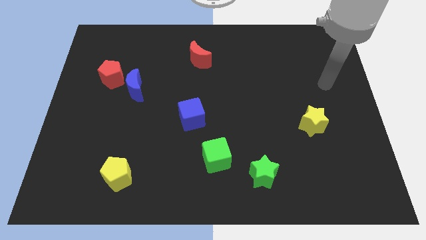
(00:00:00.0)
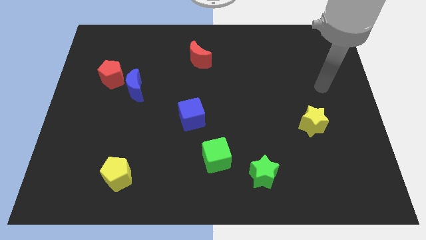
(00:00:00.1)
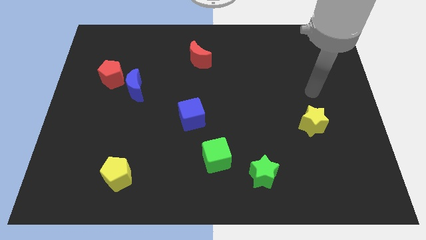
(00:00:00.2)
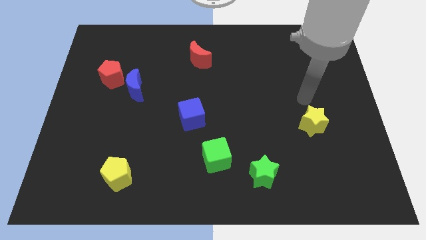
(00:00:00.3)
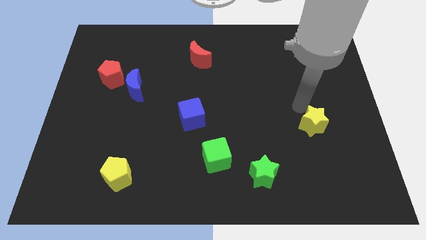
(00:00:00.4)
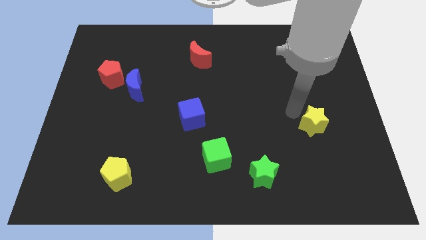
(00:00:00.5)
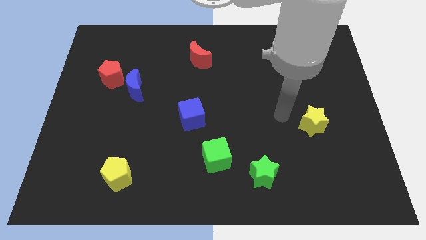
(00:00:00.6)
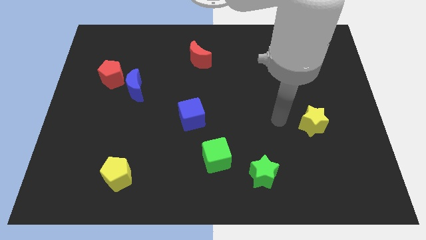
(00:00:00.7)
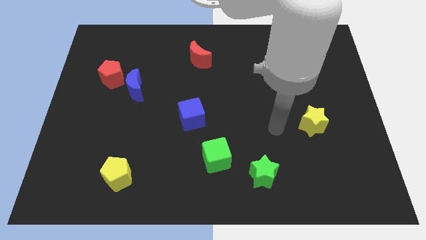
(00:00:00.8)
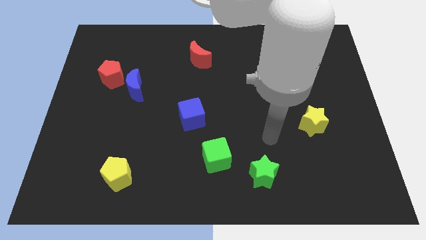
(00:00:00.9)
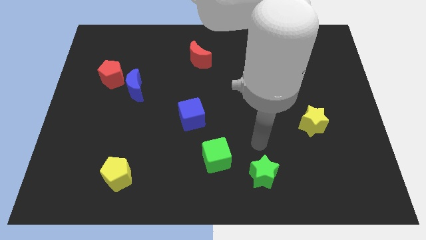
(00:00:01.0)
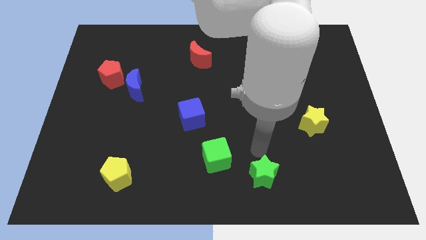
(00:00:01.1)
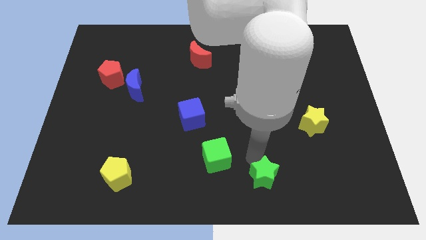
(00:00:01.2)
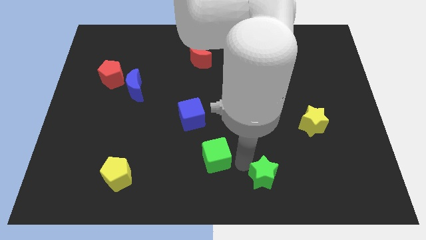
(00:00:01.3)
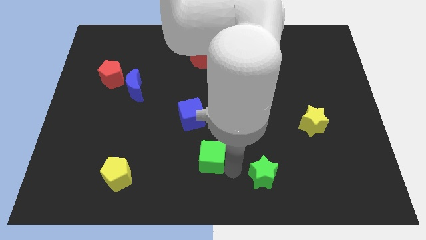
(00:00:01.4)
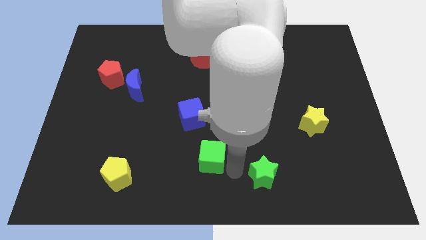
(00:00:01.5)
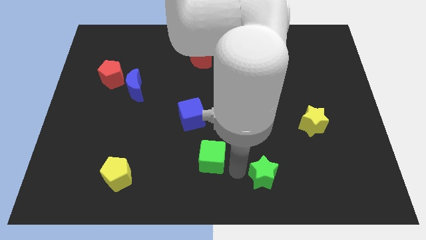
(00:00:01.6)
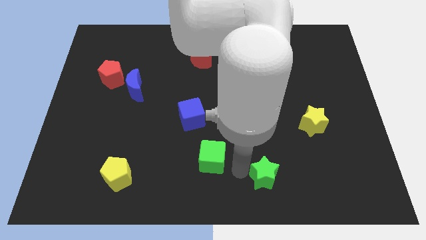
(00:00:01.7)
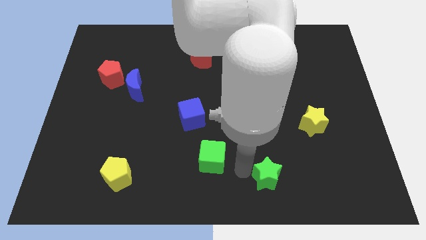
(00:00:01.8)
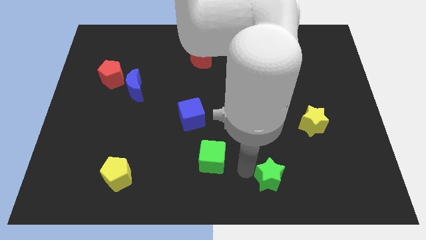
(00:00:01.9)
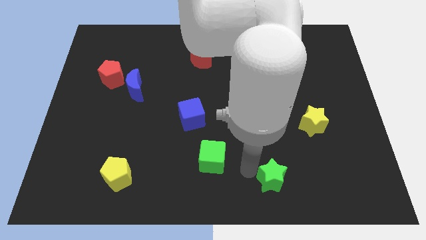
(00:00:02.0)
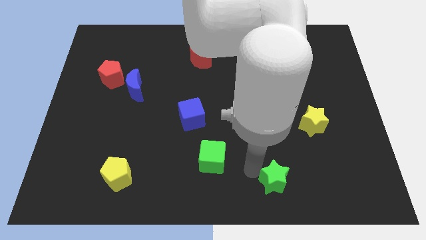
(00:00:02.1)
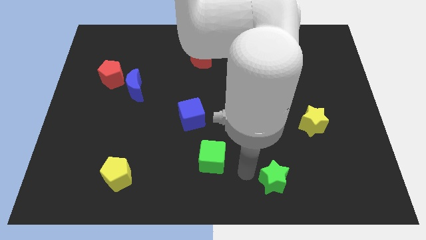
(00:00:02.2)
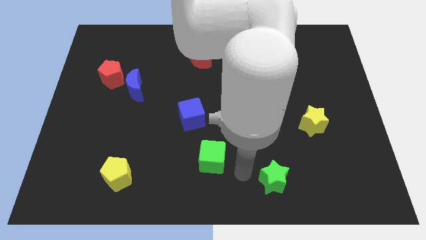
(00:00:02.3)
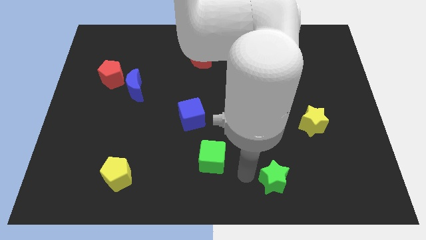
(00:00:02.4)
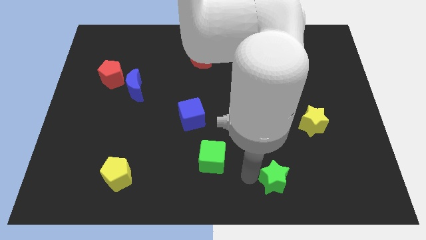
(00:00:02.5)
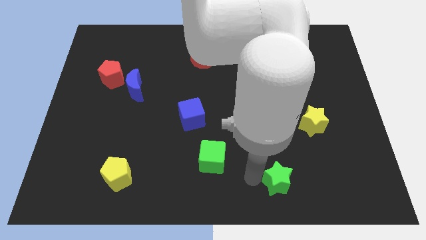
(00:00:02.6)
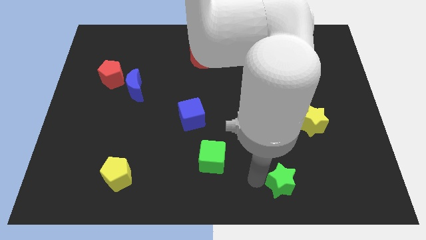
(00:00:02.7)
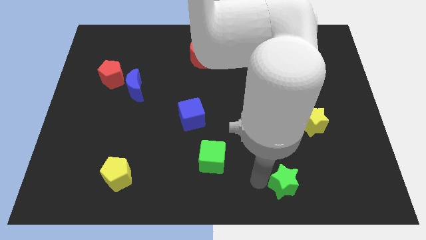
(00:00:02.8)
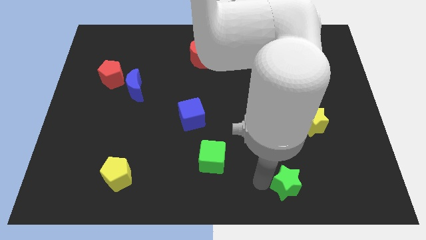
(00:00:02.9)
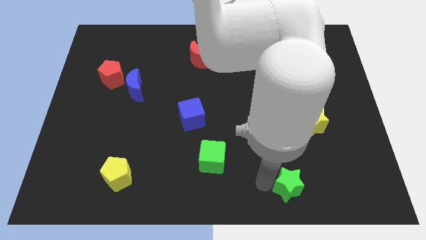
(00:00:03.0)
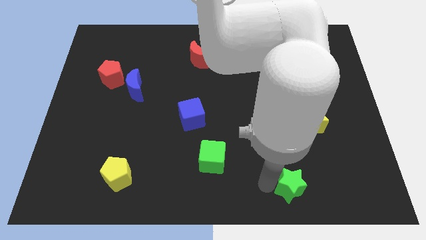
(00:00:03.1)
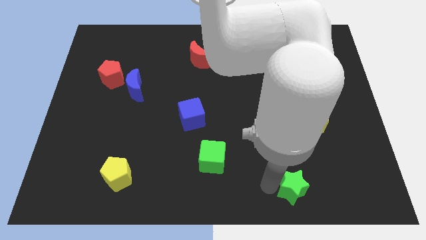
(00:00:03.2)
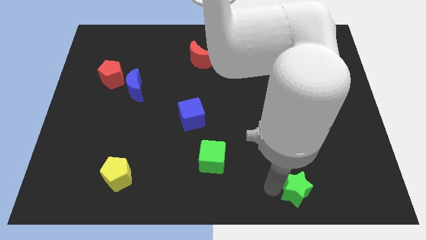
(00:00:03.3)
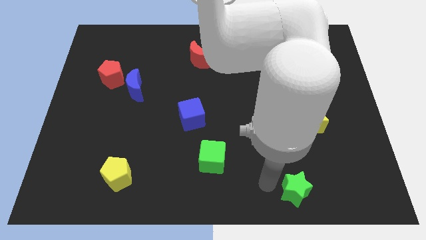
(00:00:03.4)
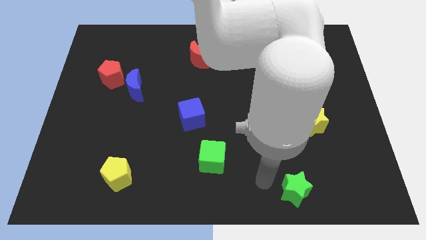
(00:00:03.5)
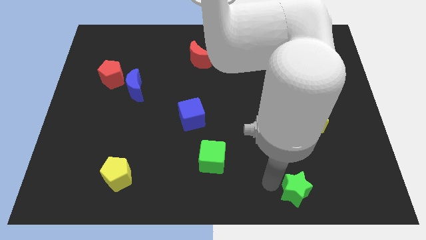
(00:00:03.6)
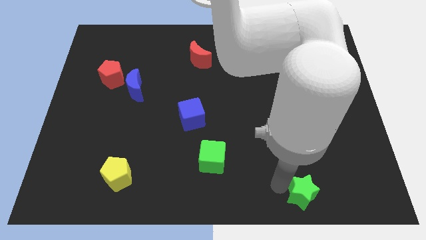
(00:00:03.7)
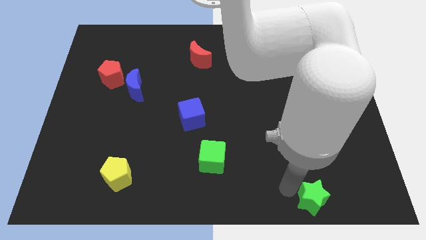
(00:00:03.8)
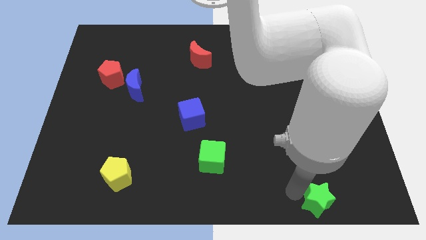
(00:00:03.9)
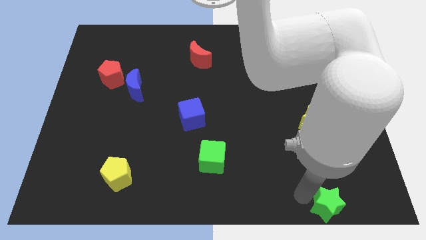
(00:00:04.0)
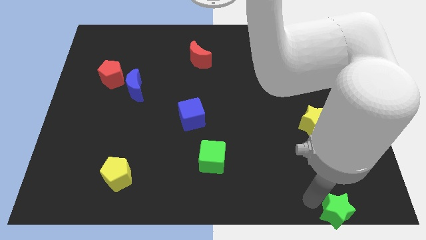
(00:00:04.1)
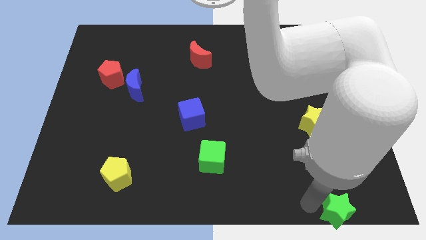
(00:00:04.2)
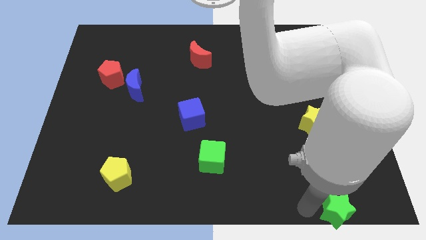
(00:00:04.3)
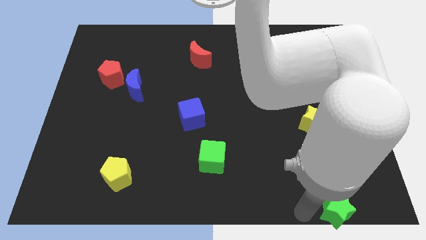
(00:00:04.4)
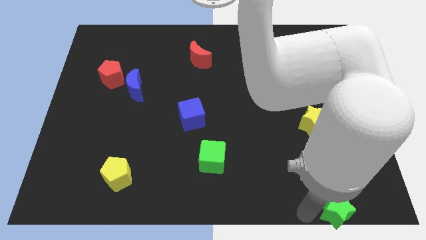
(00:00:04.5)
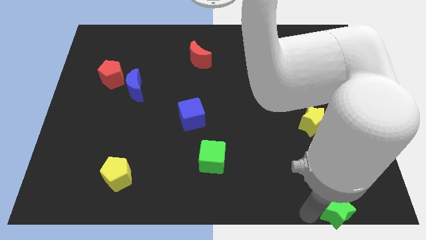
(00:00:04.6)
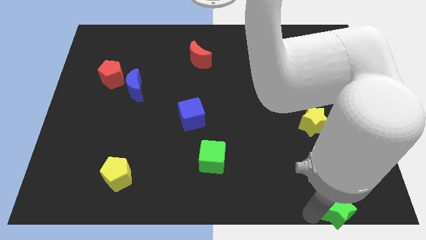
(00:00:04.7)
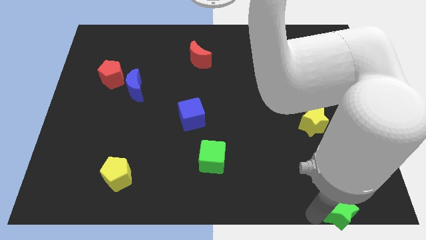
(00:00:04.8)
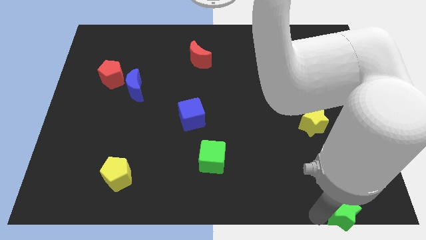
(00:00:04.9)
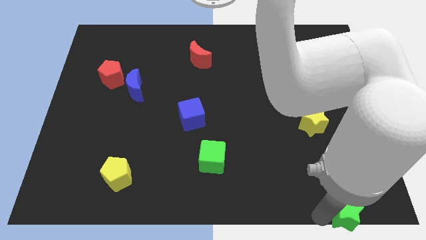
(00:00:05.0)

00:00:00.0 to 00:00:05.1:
put the green star to the bottom right
